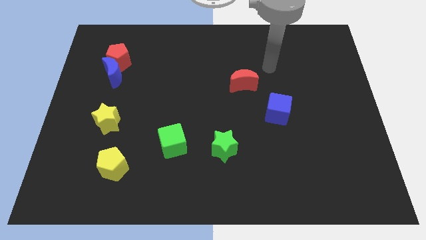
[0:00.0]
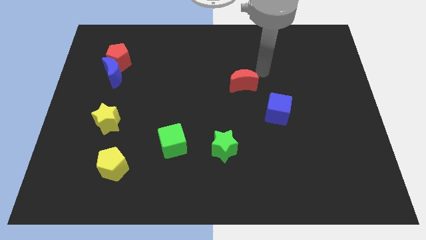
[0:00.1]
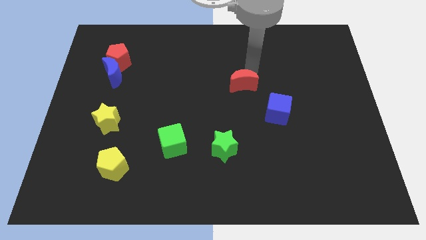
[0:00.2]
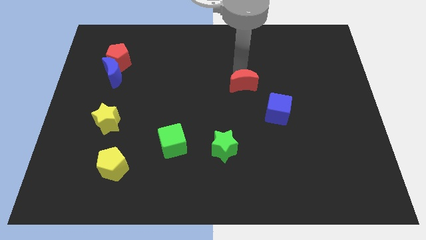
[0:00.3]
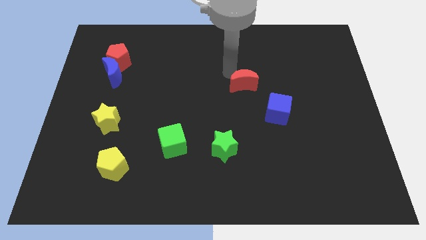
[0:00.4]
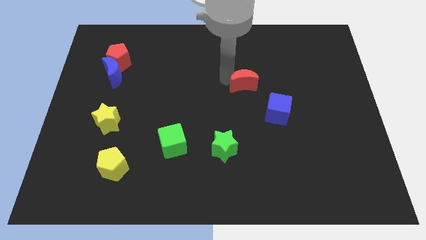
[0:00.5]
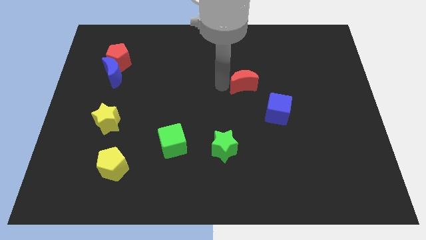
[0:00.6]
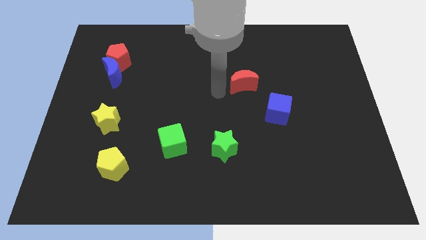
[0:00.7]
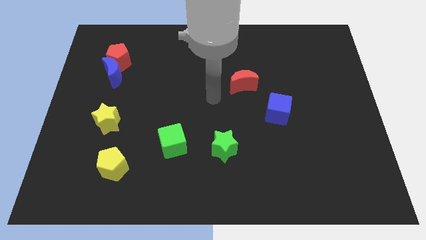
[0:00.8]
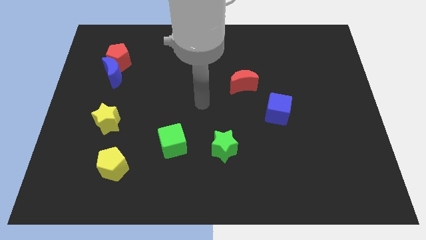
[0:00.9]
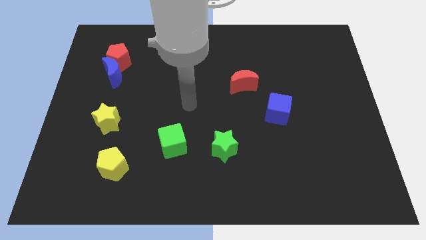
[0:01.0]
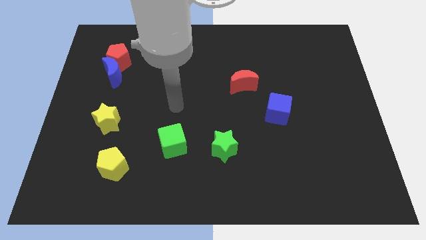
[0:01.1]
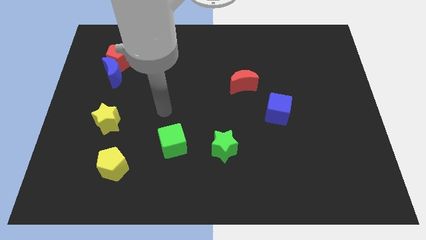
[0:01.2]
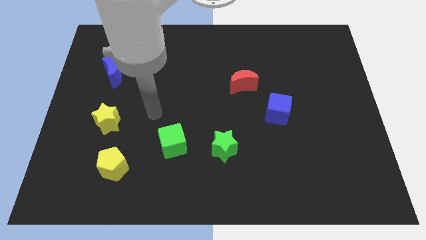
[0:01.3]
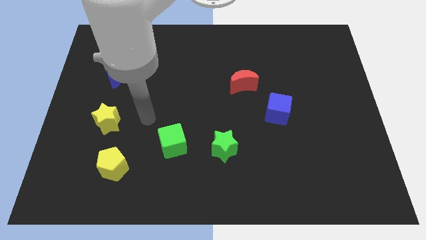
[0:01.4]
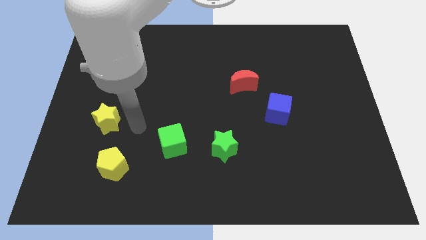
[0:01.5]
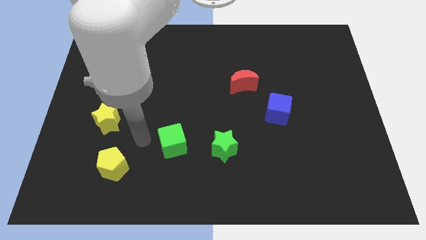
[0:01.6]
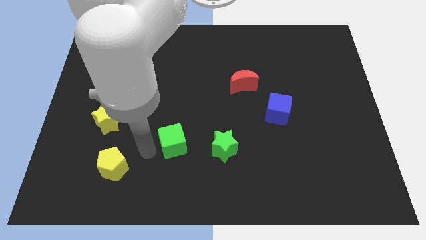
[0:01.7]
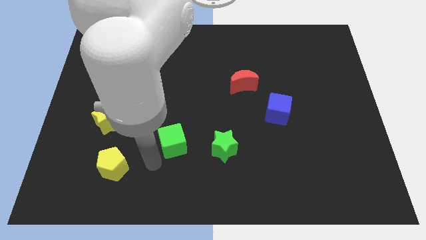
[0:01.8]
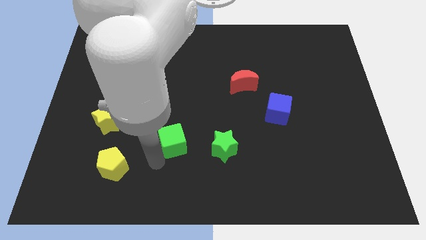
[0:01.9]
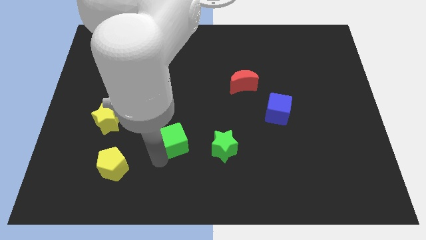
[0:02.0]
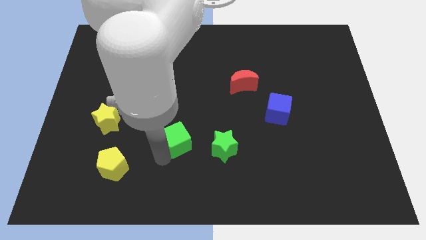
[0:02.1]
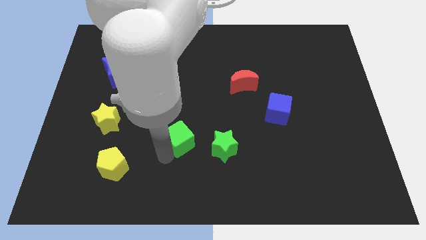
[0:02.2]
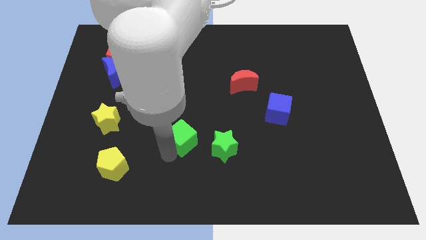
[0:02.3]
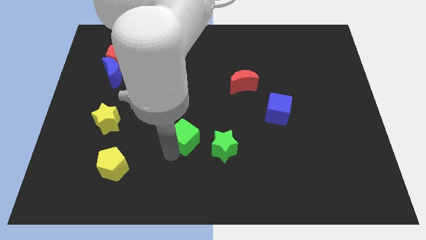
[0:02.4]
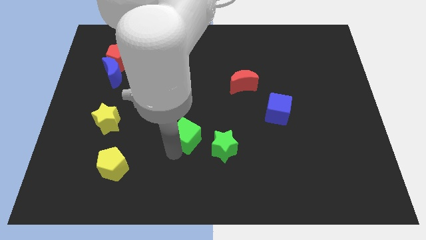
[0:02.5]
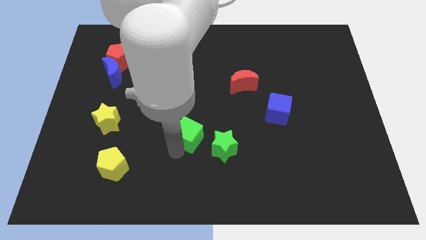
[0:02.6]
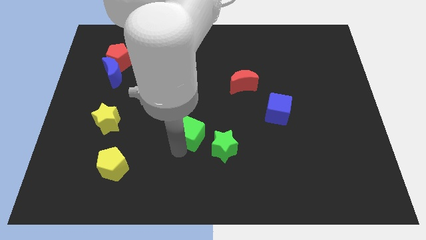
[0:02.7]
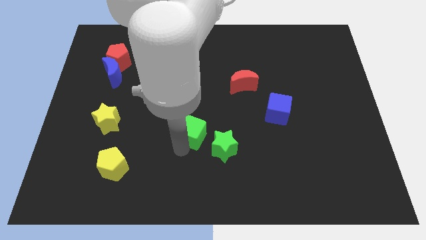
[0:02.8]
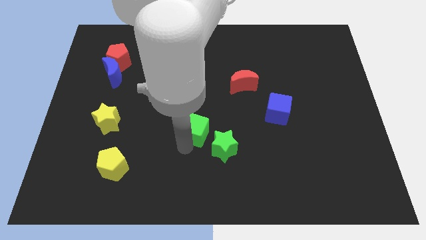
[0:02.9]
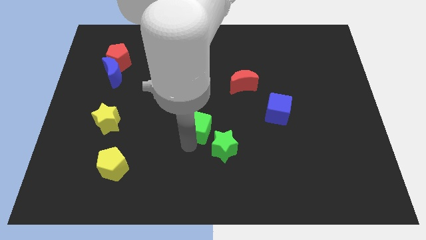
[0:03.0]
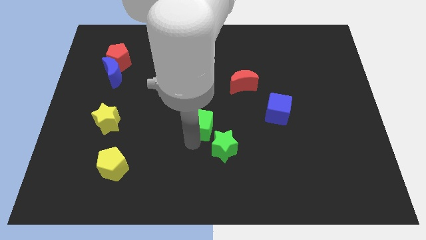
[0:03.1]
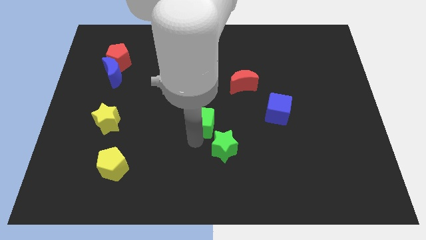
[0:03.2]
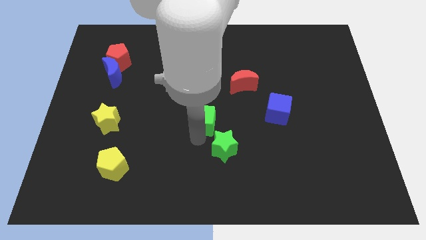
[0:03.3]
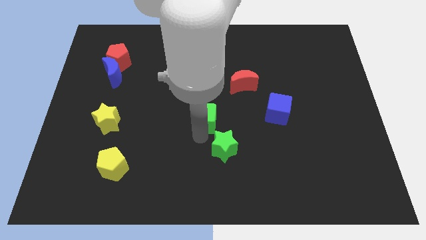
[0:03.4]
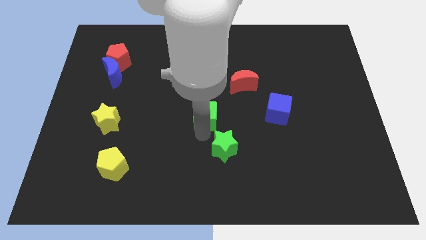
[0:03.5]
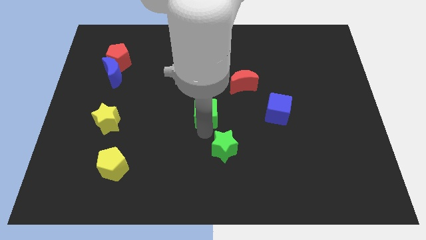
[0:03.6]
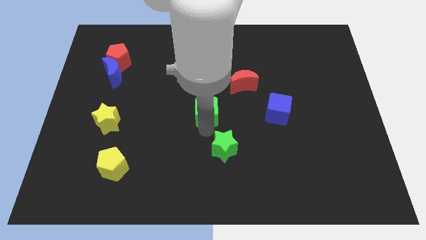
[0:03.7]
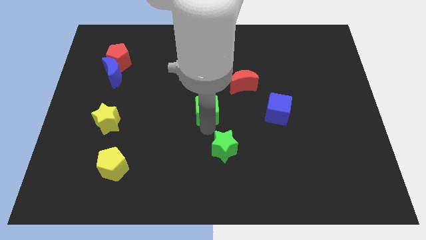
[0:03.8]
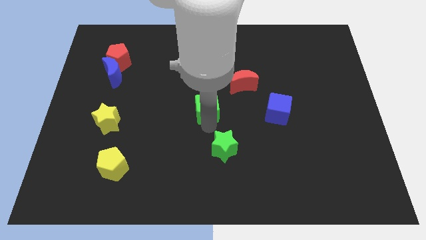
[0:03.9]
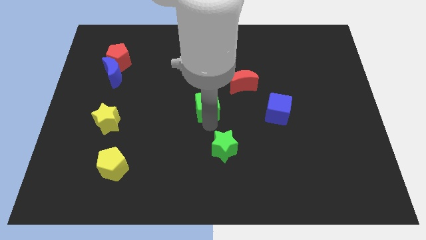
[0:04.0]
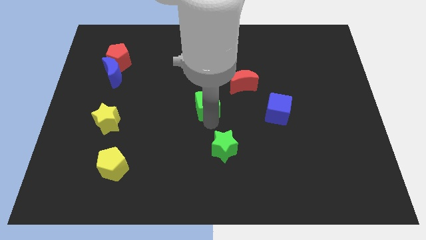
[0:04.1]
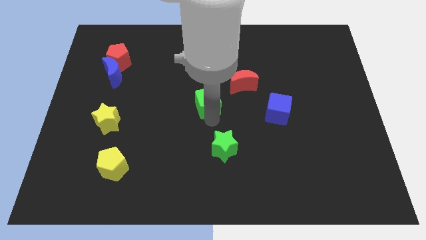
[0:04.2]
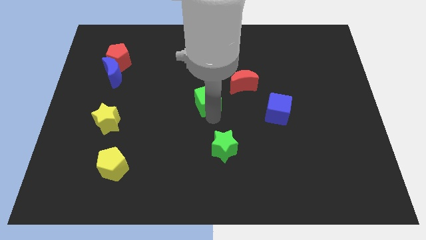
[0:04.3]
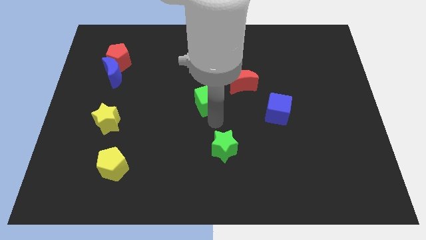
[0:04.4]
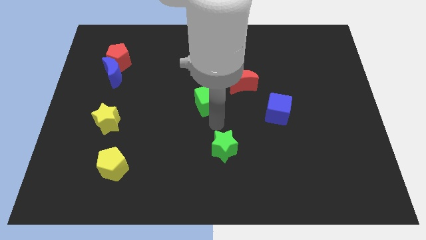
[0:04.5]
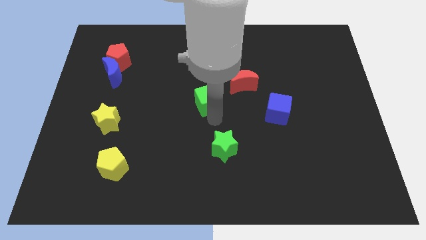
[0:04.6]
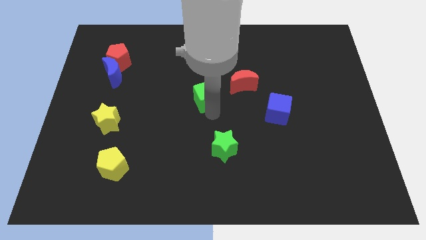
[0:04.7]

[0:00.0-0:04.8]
move the green cube to the left of the red moon

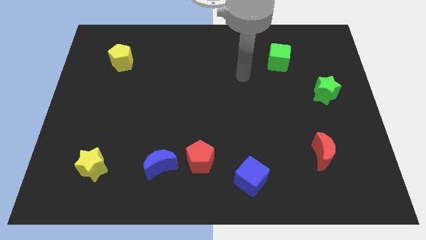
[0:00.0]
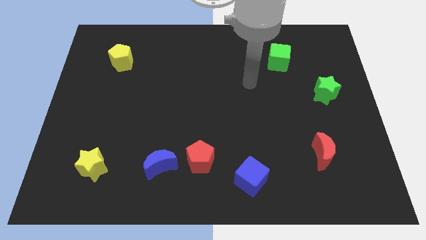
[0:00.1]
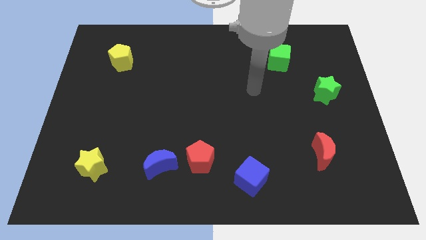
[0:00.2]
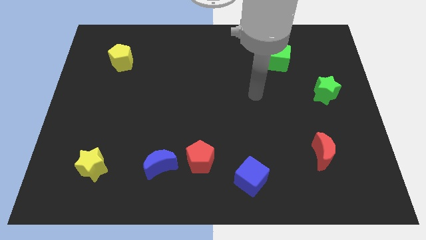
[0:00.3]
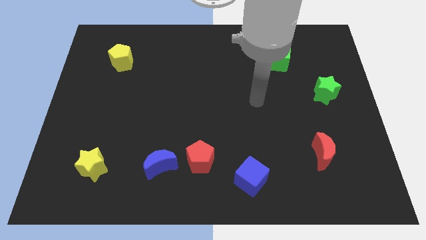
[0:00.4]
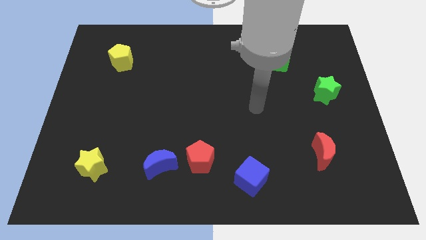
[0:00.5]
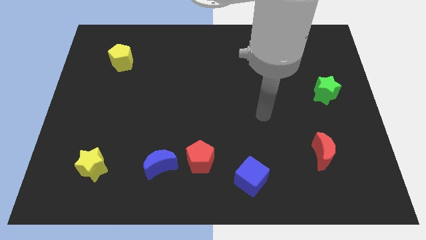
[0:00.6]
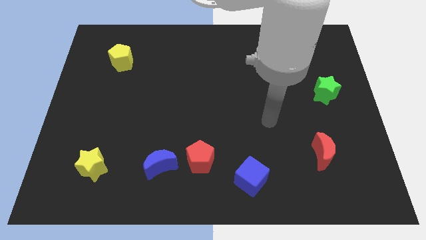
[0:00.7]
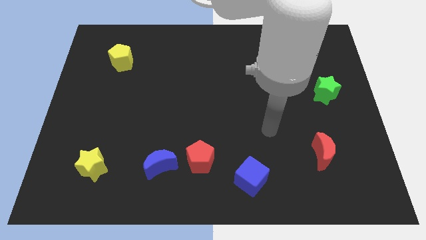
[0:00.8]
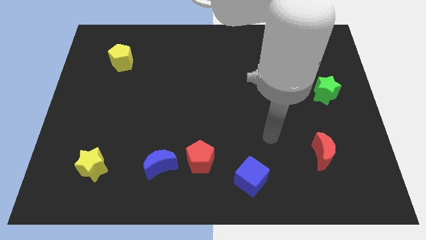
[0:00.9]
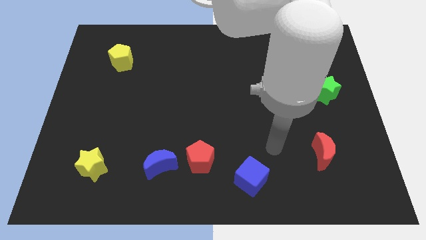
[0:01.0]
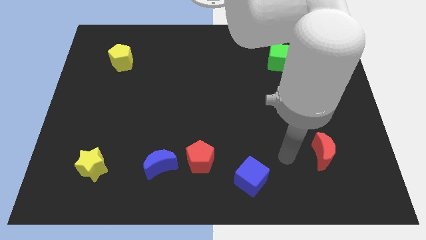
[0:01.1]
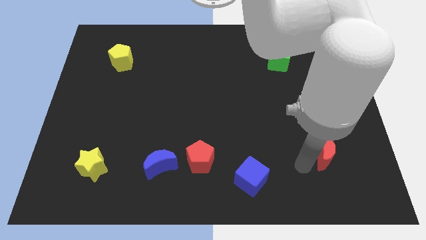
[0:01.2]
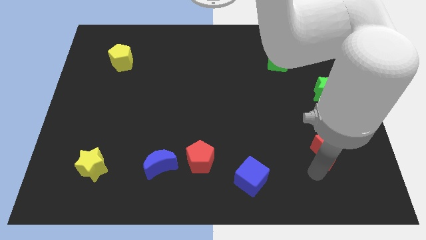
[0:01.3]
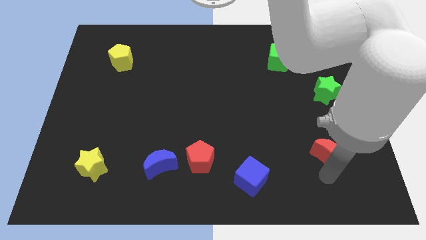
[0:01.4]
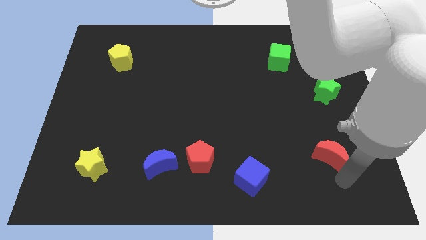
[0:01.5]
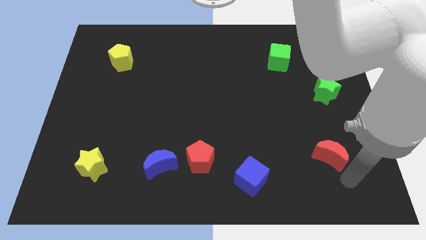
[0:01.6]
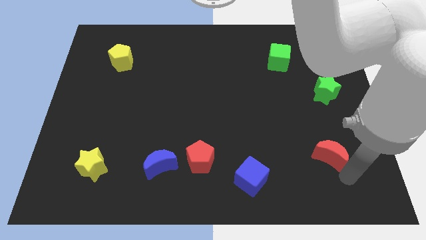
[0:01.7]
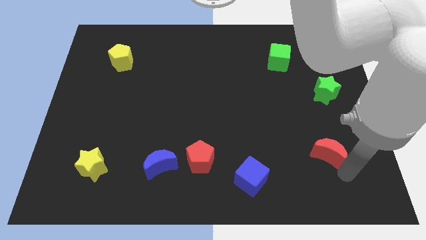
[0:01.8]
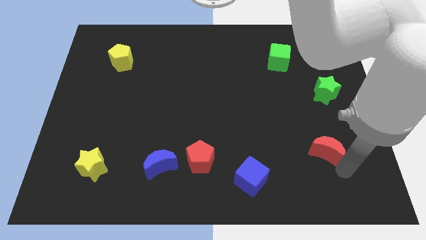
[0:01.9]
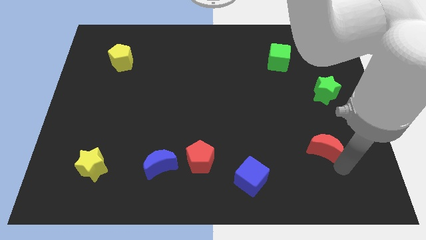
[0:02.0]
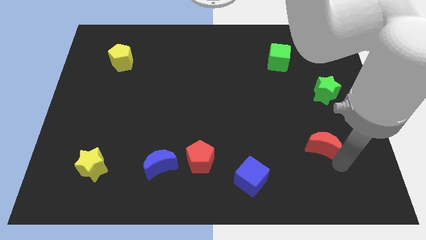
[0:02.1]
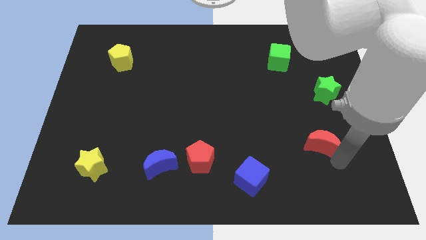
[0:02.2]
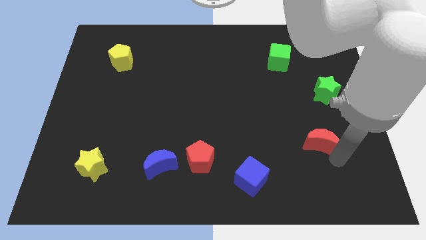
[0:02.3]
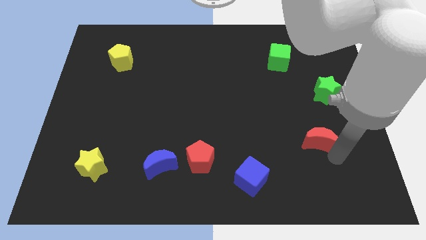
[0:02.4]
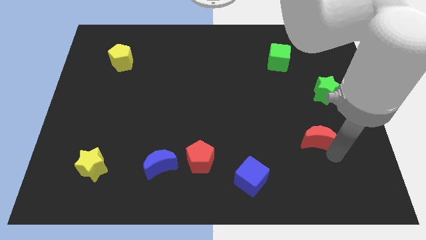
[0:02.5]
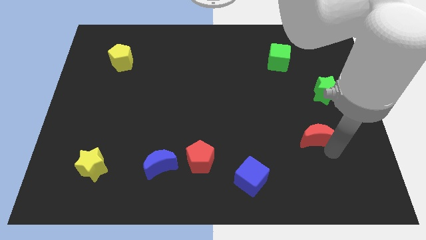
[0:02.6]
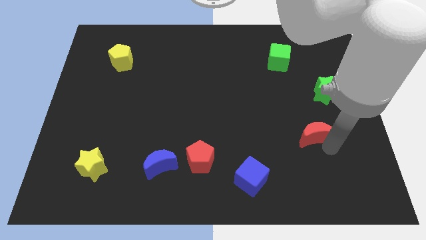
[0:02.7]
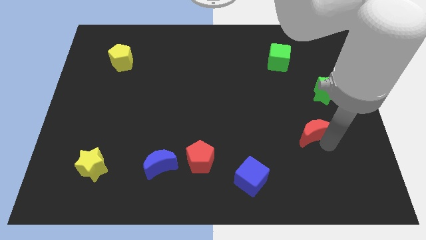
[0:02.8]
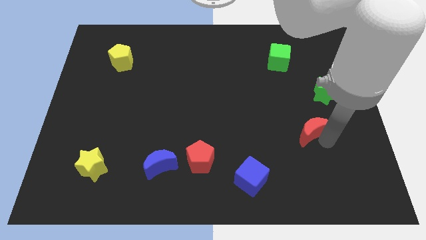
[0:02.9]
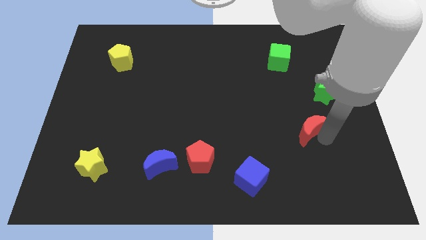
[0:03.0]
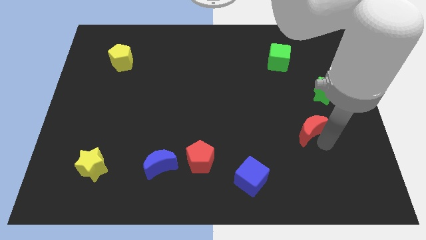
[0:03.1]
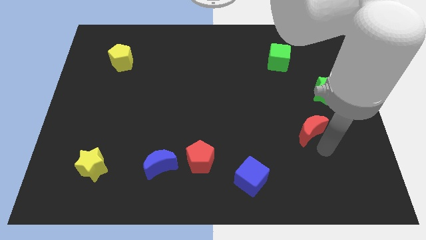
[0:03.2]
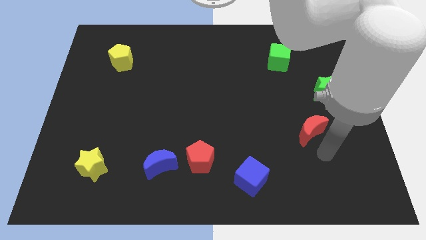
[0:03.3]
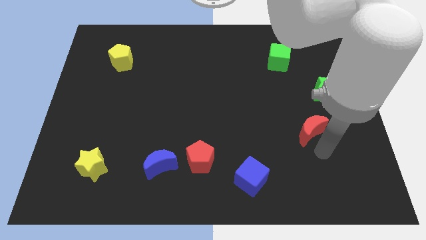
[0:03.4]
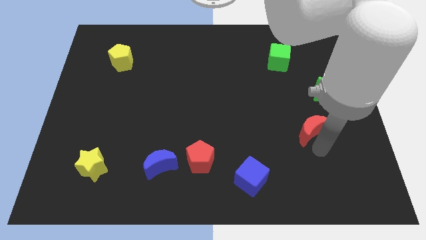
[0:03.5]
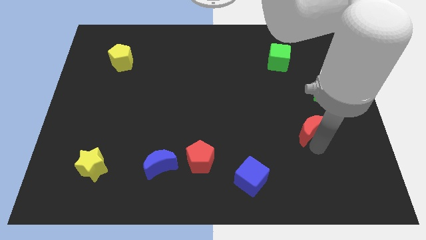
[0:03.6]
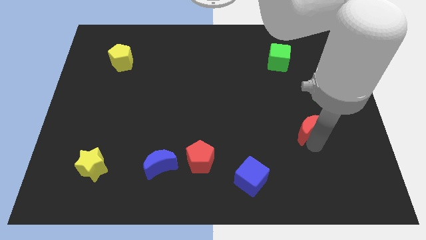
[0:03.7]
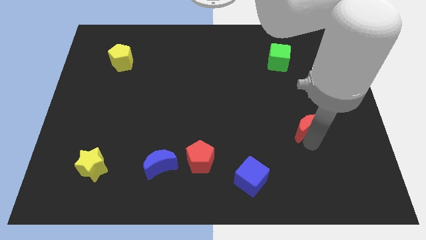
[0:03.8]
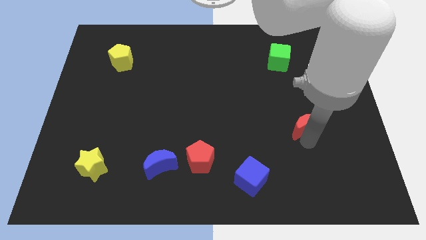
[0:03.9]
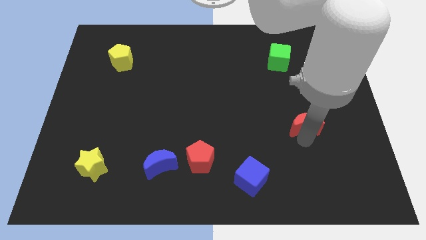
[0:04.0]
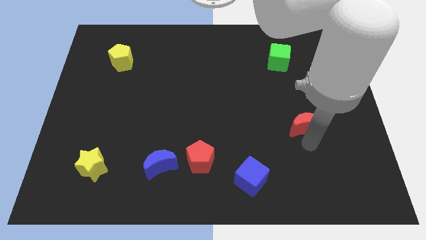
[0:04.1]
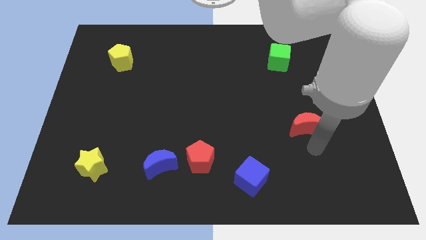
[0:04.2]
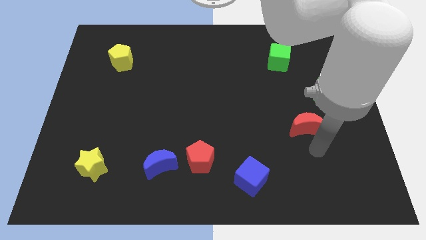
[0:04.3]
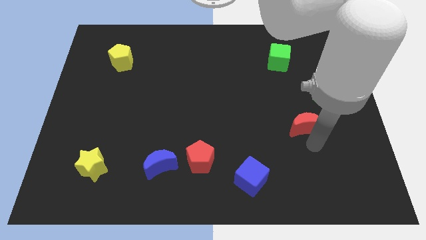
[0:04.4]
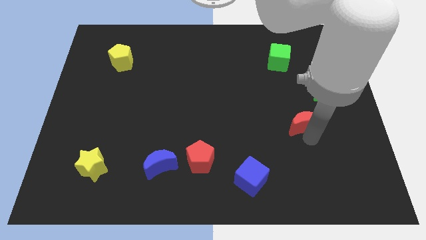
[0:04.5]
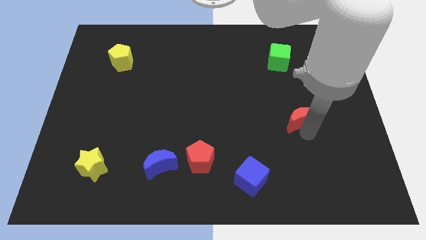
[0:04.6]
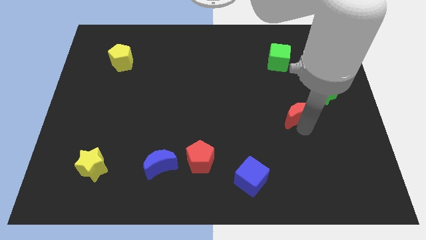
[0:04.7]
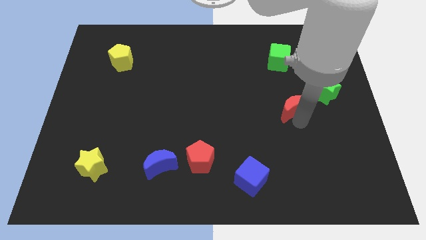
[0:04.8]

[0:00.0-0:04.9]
push the red moon below the green cube
